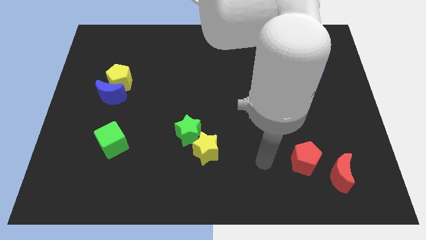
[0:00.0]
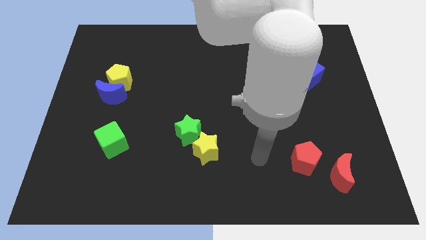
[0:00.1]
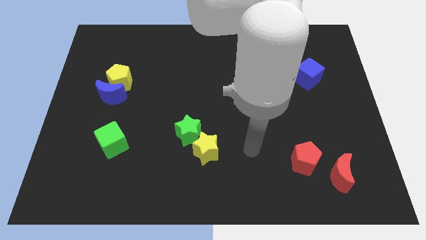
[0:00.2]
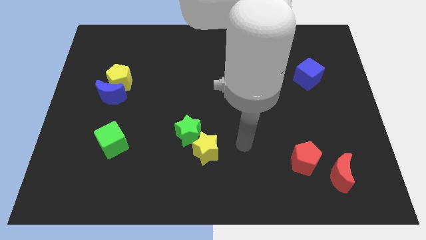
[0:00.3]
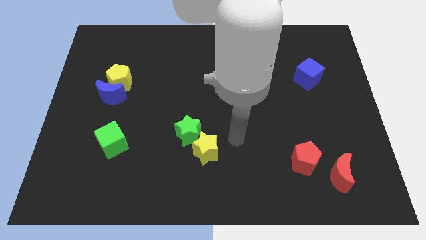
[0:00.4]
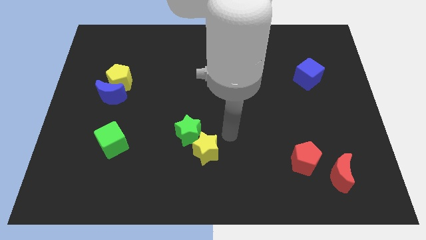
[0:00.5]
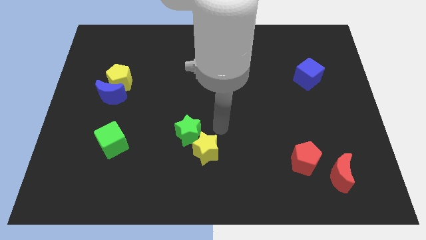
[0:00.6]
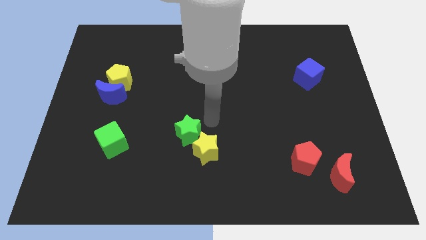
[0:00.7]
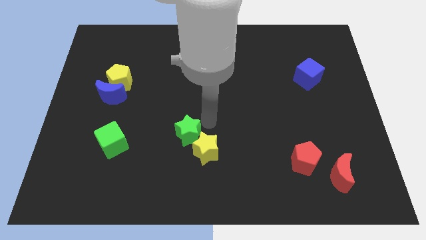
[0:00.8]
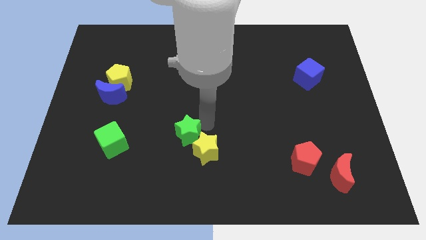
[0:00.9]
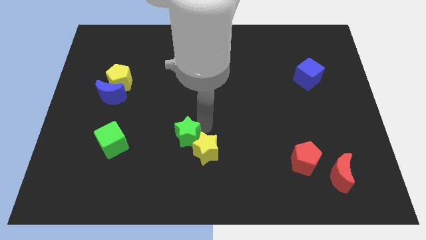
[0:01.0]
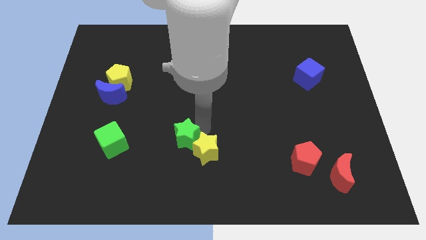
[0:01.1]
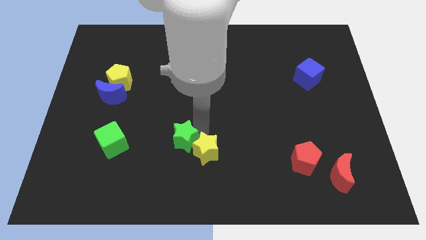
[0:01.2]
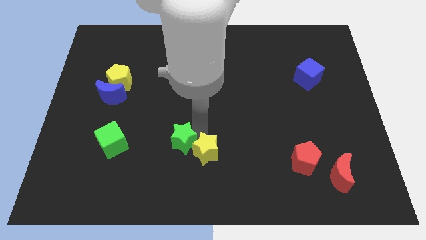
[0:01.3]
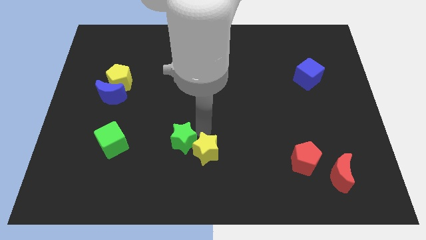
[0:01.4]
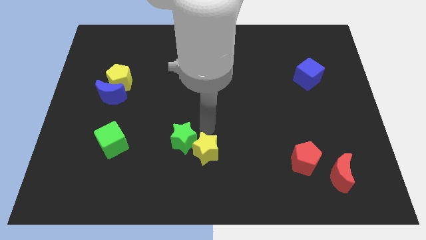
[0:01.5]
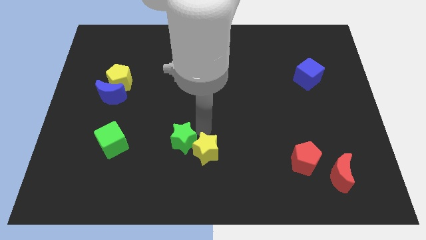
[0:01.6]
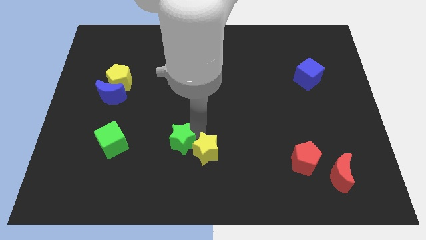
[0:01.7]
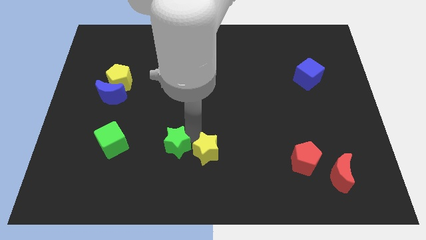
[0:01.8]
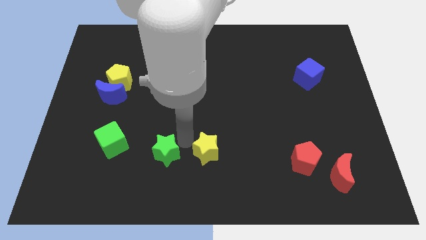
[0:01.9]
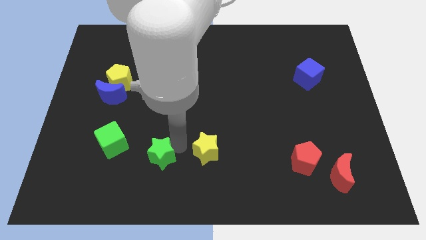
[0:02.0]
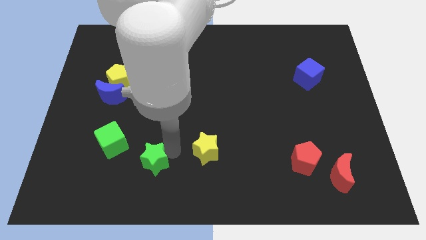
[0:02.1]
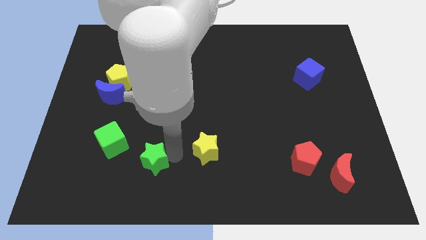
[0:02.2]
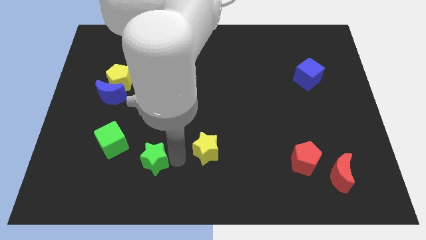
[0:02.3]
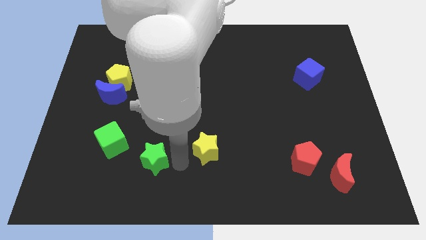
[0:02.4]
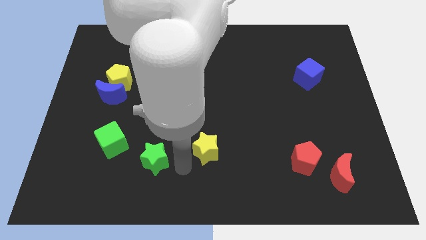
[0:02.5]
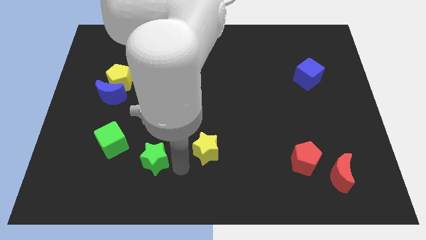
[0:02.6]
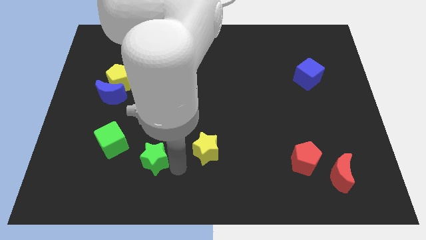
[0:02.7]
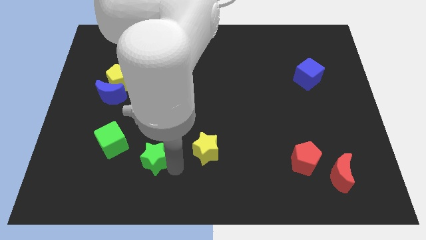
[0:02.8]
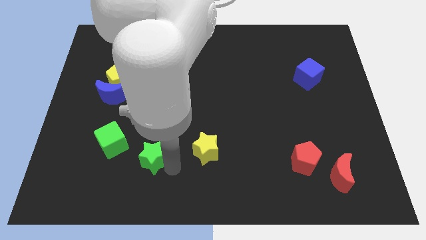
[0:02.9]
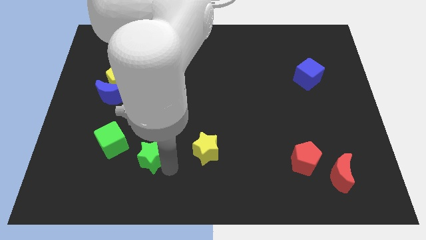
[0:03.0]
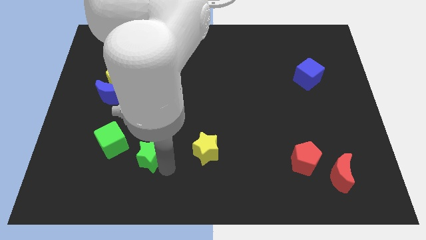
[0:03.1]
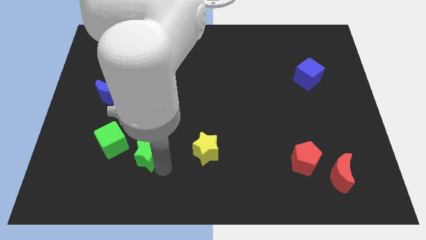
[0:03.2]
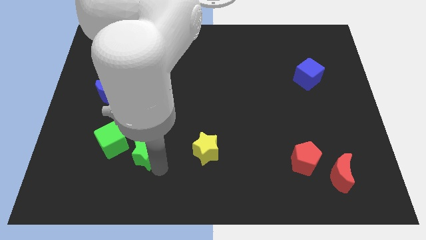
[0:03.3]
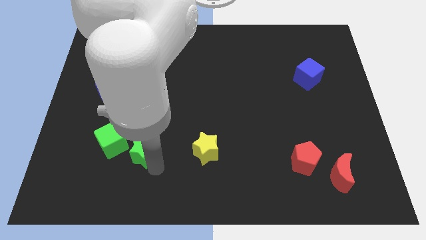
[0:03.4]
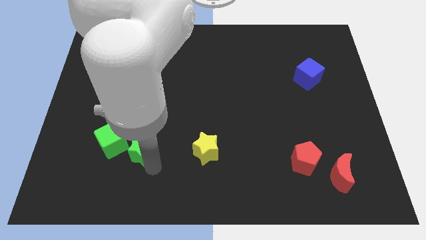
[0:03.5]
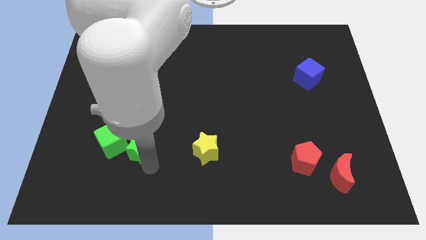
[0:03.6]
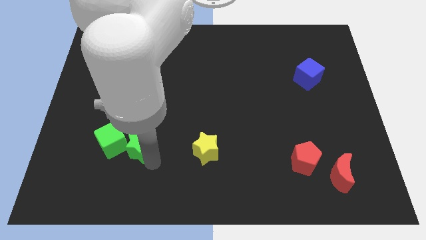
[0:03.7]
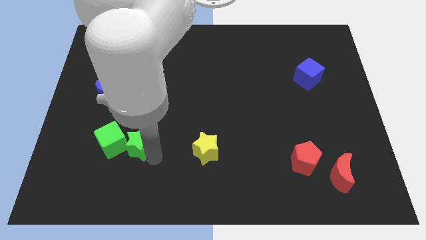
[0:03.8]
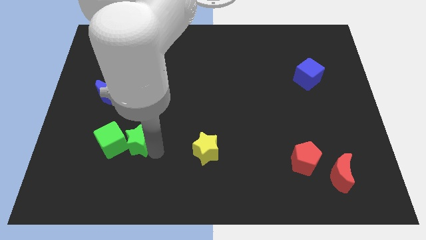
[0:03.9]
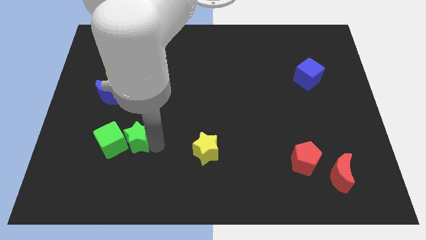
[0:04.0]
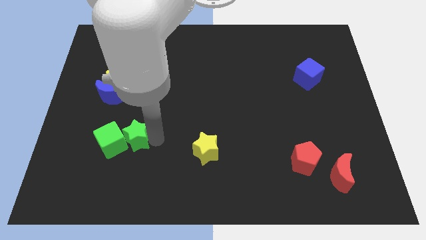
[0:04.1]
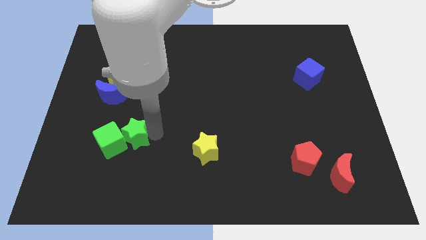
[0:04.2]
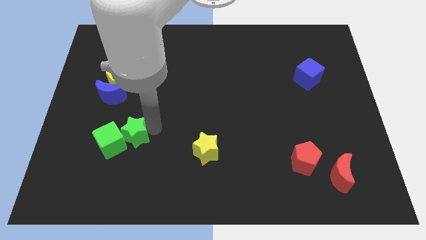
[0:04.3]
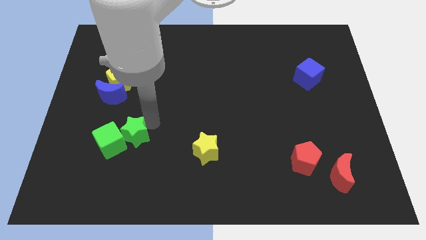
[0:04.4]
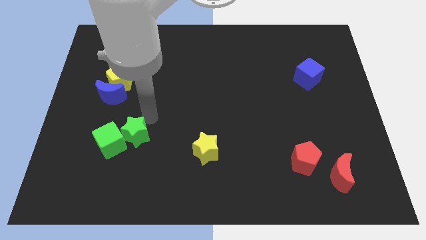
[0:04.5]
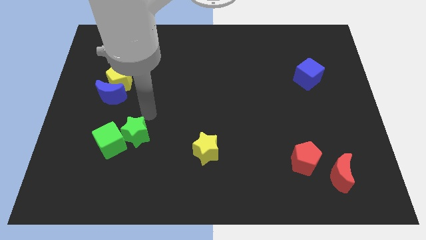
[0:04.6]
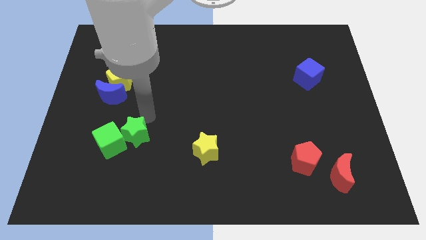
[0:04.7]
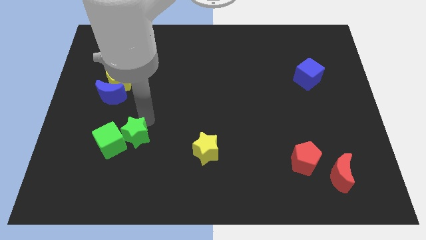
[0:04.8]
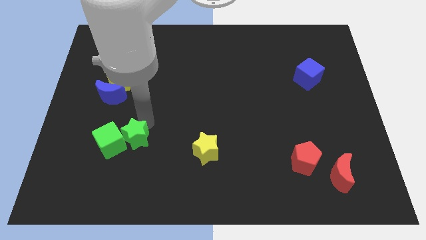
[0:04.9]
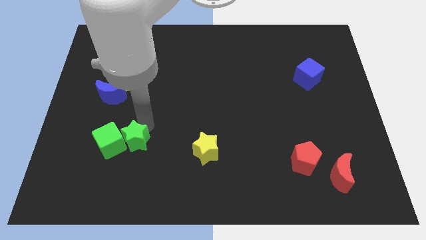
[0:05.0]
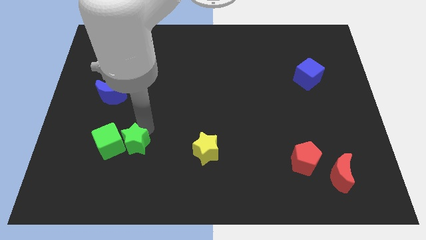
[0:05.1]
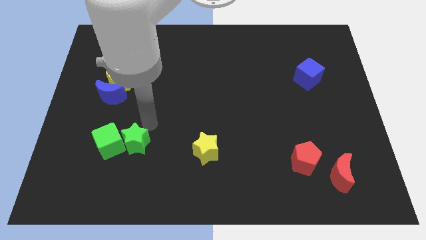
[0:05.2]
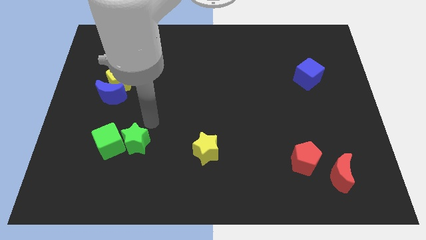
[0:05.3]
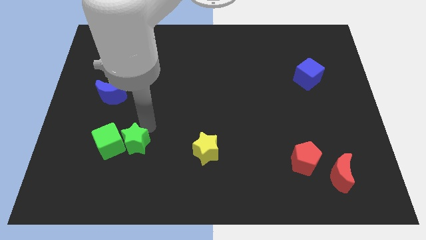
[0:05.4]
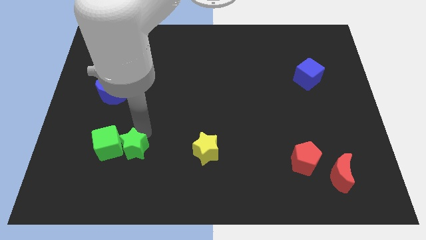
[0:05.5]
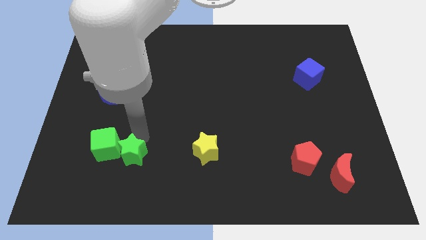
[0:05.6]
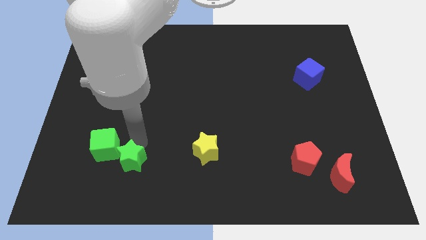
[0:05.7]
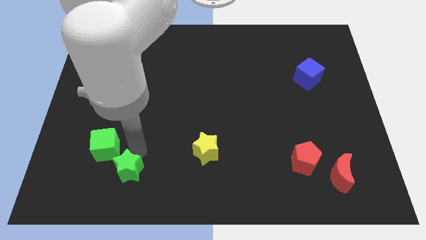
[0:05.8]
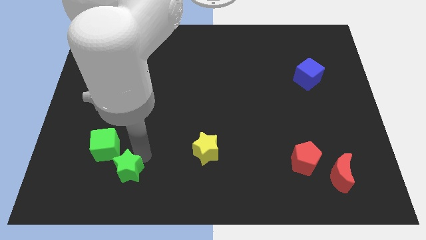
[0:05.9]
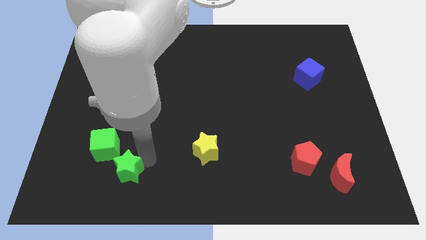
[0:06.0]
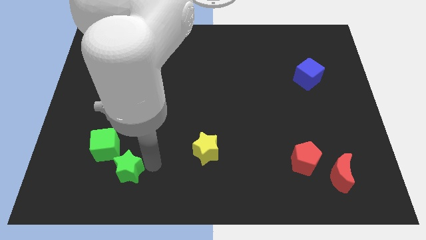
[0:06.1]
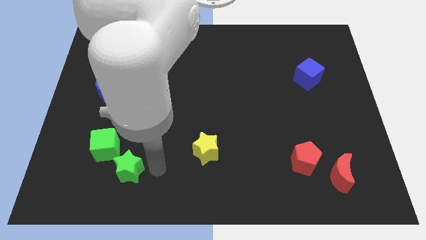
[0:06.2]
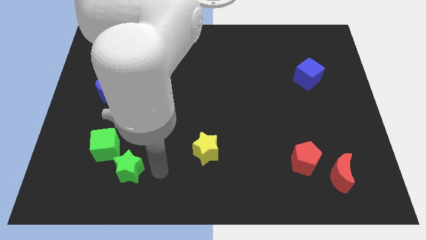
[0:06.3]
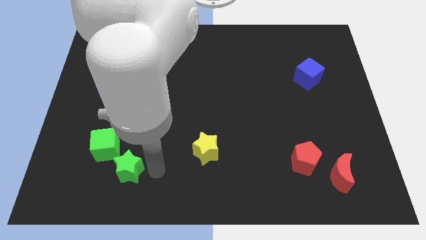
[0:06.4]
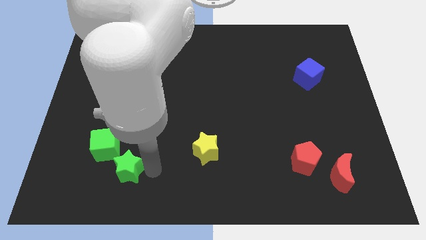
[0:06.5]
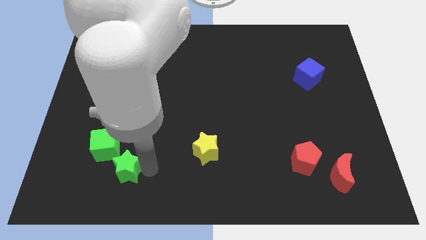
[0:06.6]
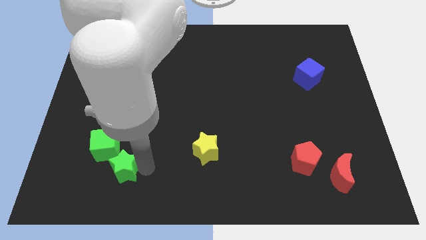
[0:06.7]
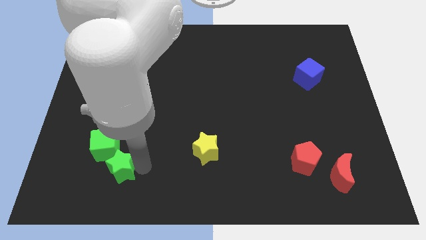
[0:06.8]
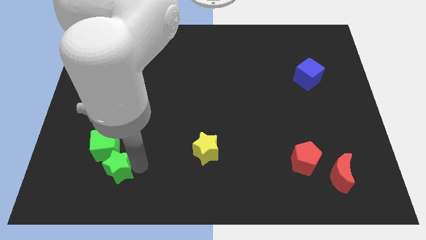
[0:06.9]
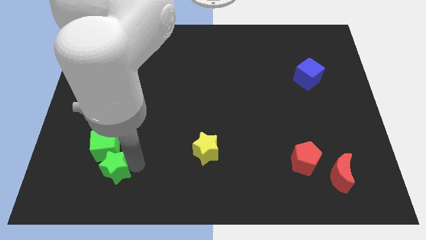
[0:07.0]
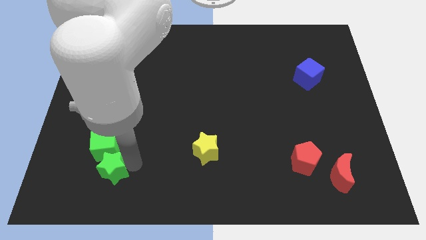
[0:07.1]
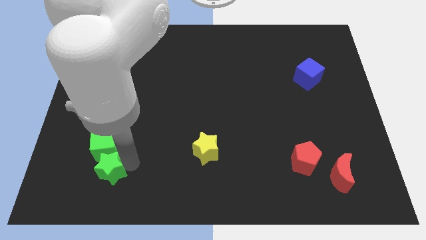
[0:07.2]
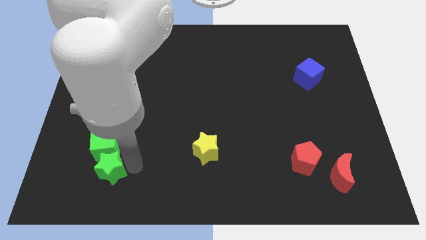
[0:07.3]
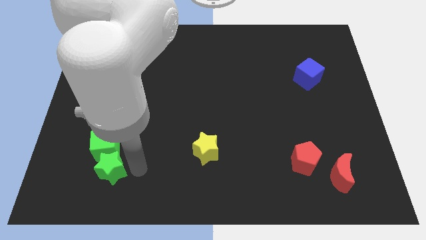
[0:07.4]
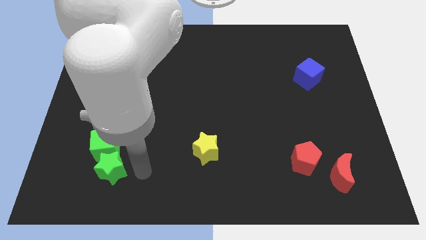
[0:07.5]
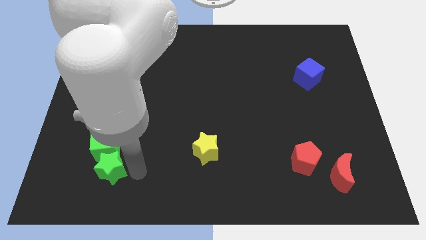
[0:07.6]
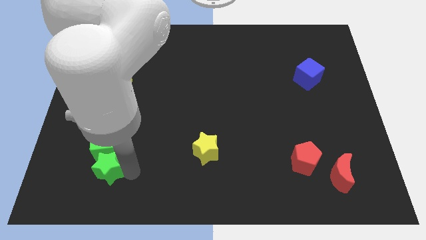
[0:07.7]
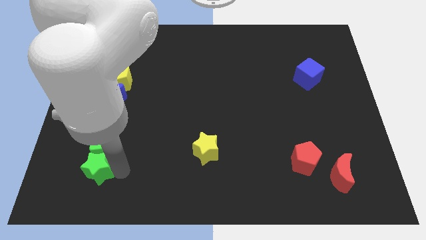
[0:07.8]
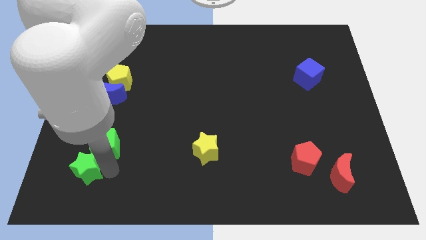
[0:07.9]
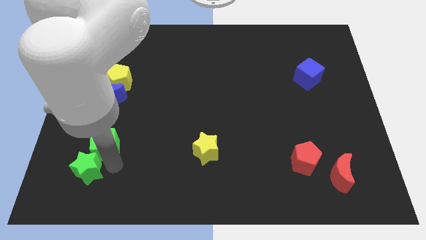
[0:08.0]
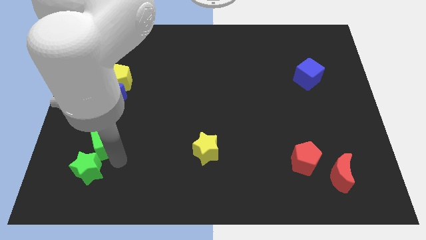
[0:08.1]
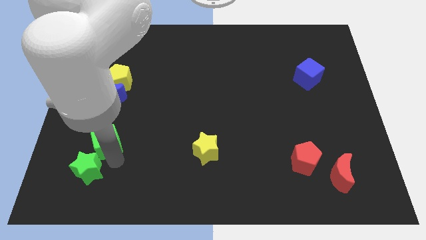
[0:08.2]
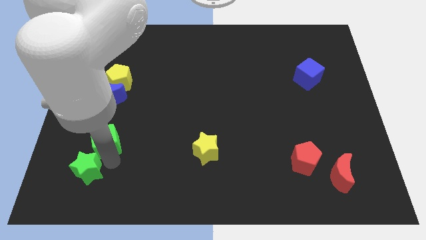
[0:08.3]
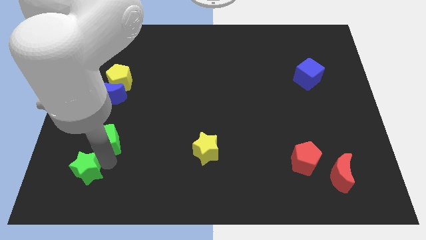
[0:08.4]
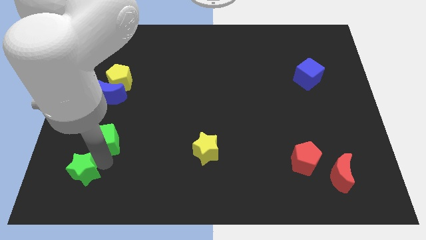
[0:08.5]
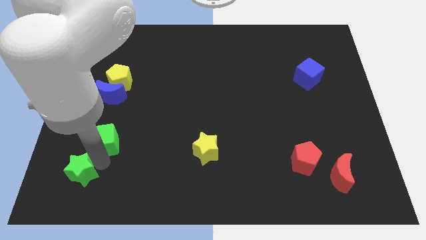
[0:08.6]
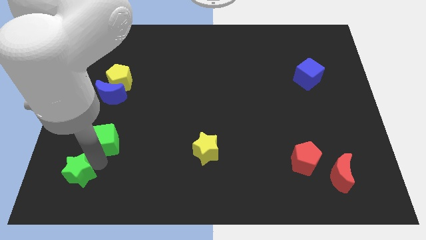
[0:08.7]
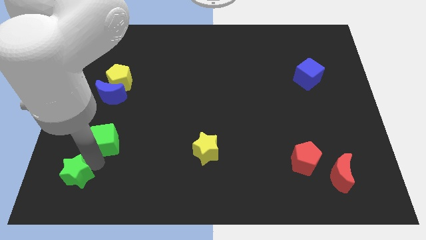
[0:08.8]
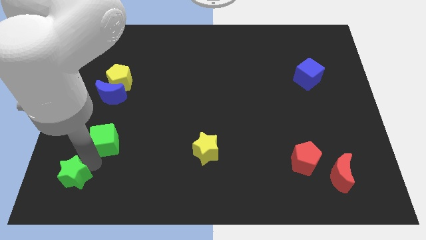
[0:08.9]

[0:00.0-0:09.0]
slide the green star to the lower left corner
